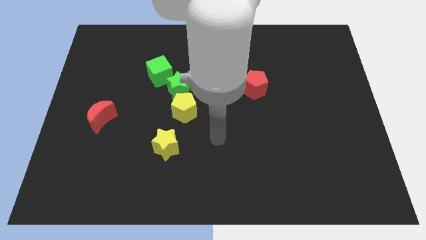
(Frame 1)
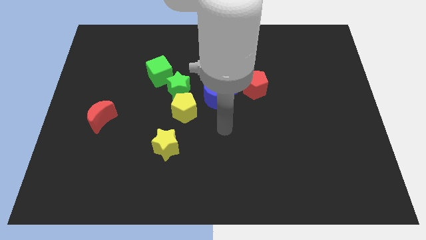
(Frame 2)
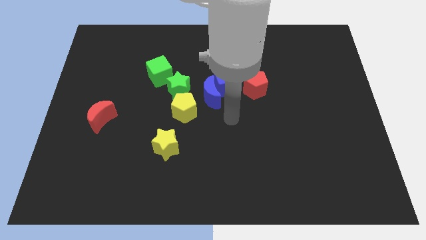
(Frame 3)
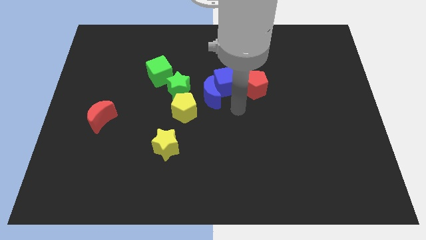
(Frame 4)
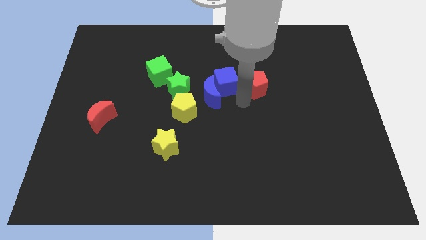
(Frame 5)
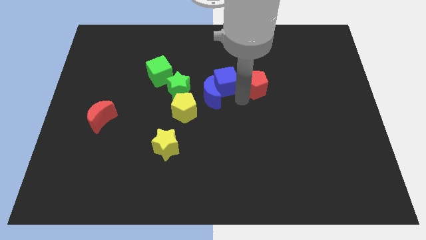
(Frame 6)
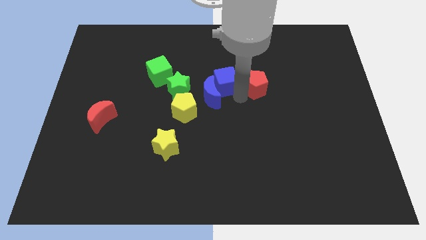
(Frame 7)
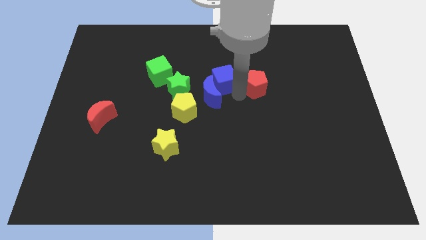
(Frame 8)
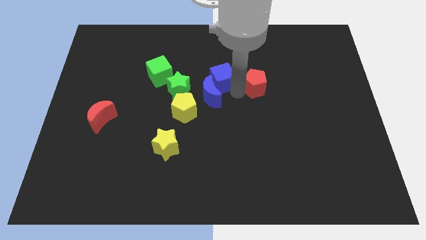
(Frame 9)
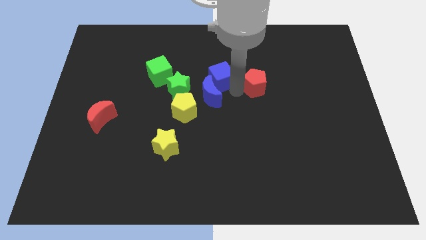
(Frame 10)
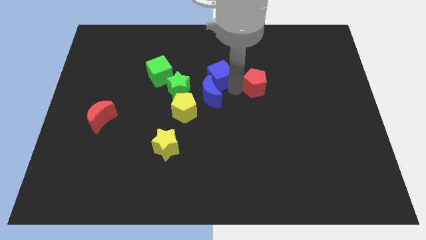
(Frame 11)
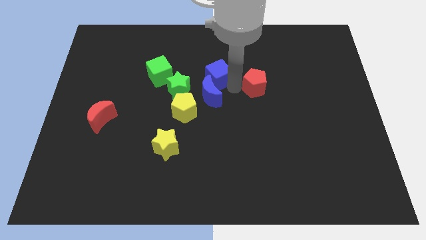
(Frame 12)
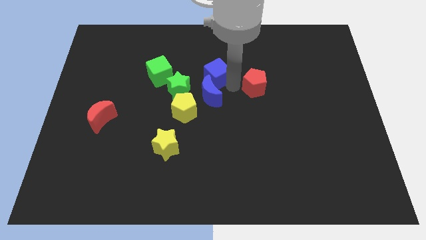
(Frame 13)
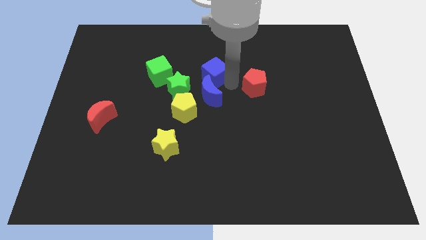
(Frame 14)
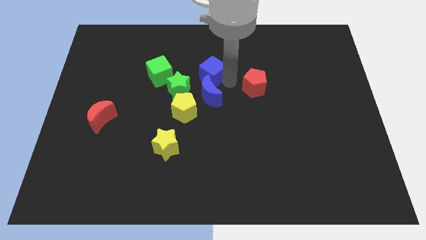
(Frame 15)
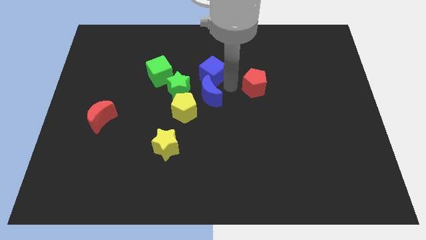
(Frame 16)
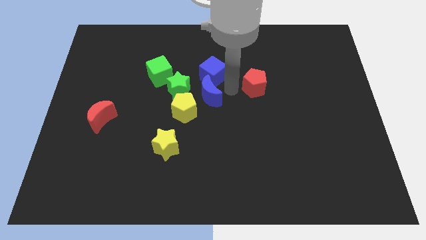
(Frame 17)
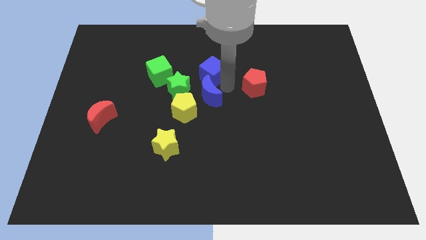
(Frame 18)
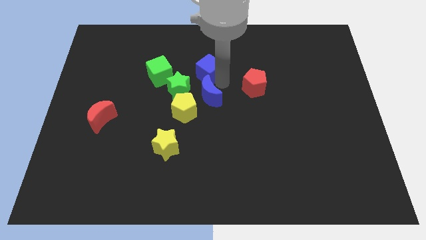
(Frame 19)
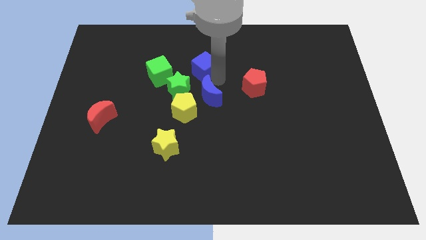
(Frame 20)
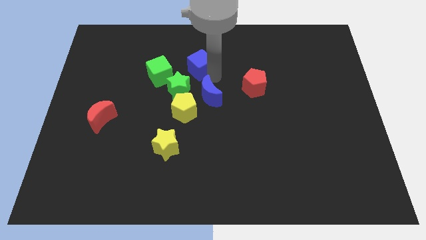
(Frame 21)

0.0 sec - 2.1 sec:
pull the blue cube apart from the blue moon and red pentagon

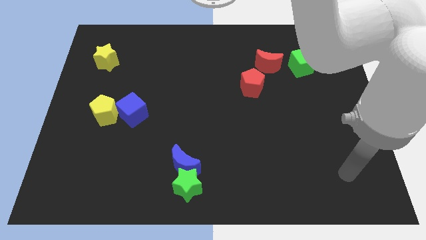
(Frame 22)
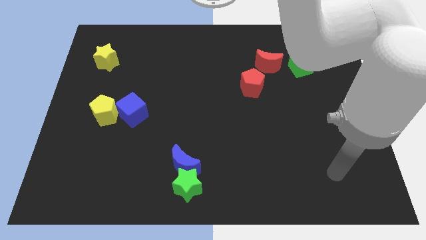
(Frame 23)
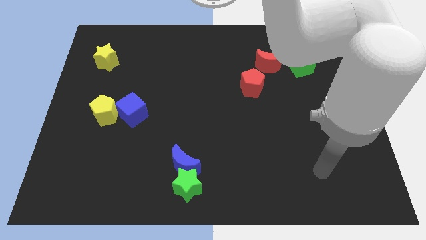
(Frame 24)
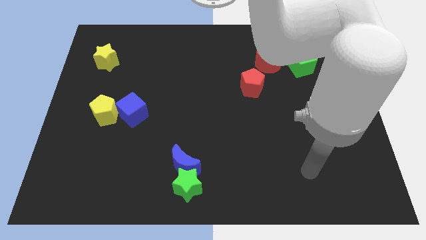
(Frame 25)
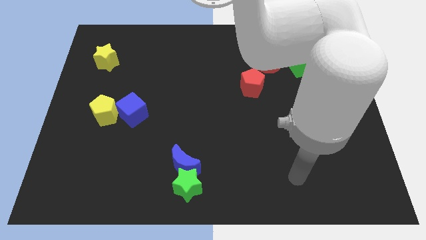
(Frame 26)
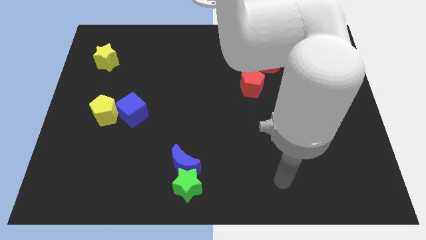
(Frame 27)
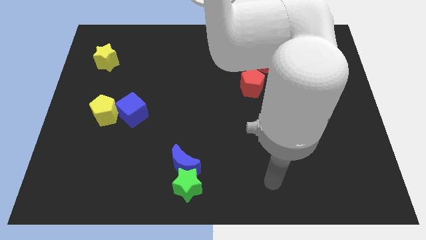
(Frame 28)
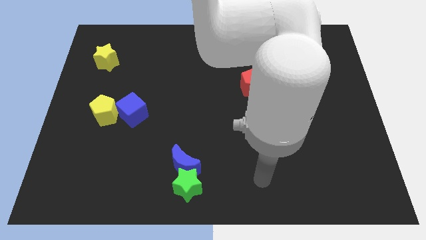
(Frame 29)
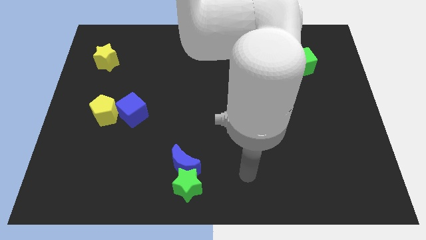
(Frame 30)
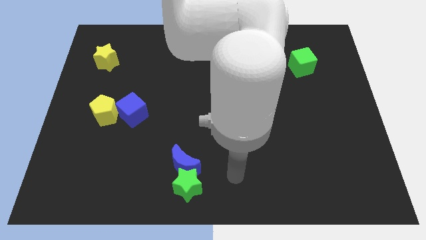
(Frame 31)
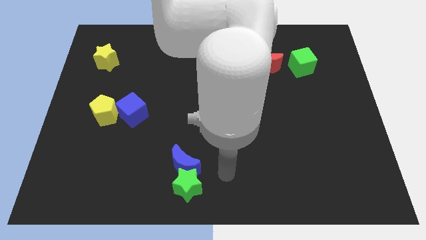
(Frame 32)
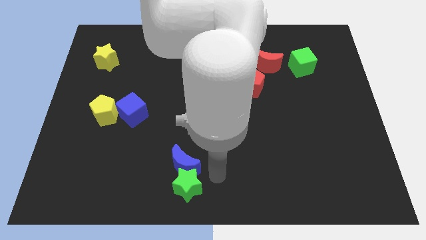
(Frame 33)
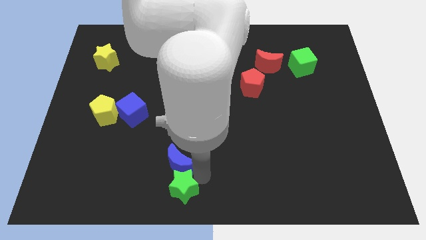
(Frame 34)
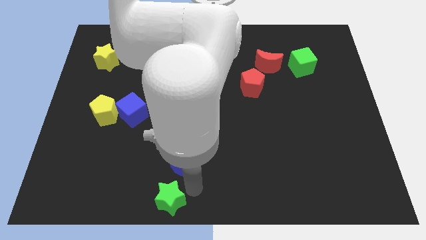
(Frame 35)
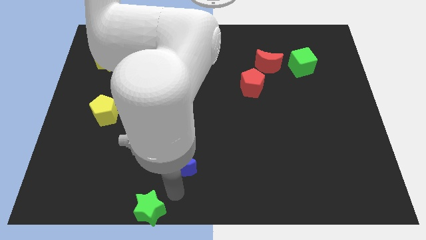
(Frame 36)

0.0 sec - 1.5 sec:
pull the blue moon apart from the green star

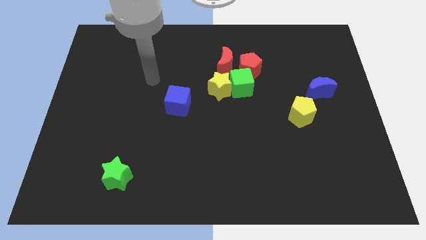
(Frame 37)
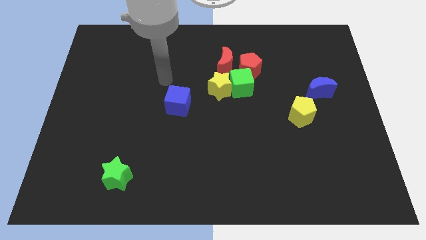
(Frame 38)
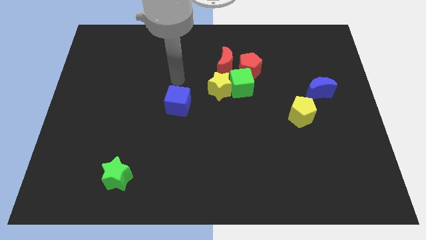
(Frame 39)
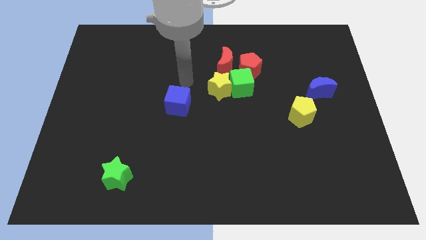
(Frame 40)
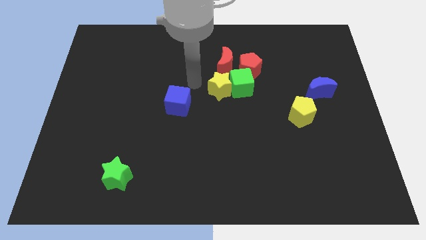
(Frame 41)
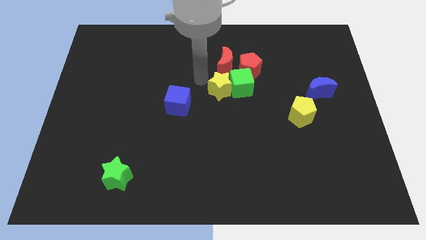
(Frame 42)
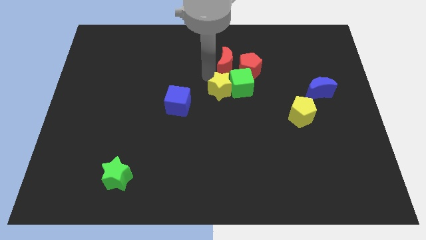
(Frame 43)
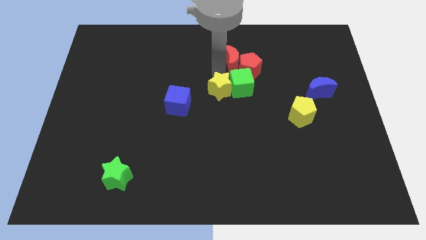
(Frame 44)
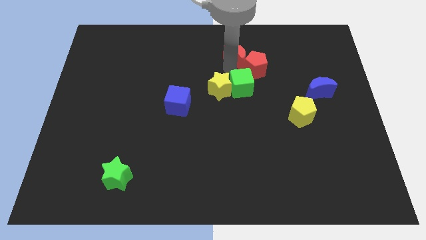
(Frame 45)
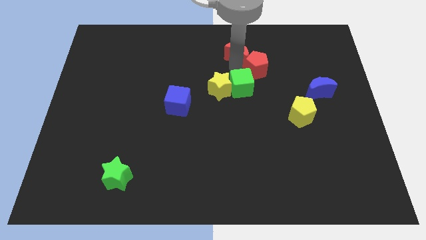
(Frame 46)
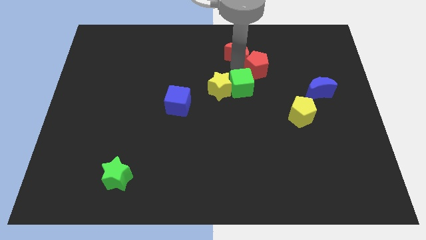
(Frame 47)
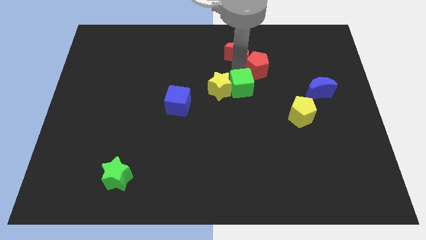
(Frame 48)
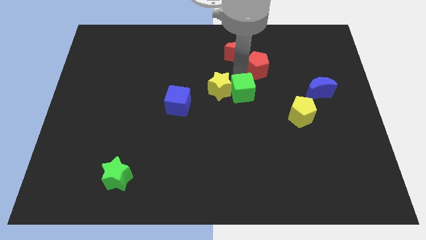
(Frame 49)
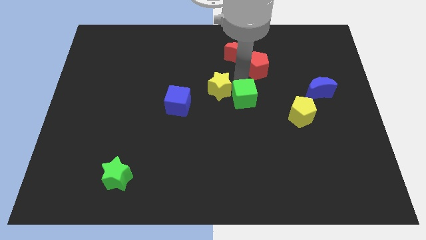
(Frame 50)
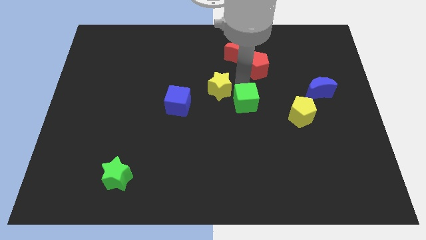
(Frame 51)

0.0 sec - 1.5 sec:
pull the green cube apart from the yellow star, red pentagon, and red moon

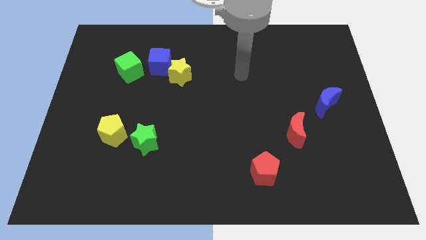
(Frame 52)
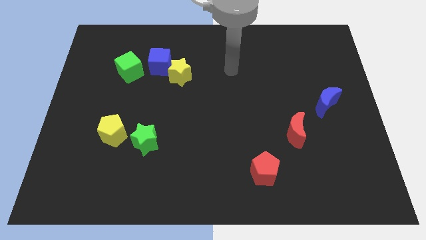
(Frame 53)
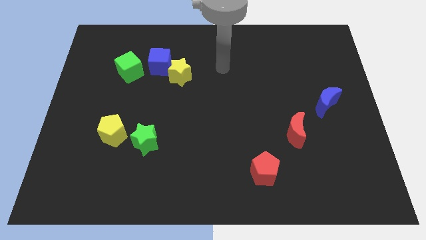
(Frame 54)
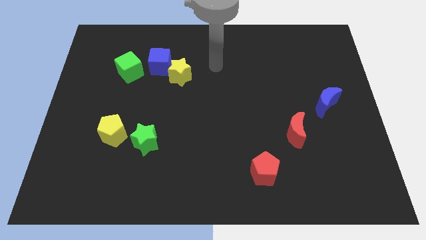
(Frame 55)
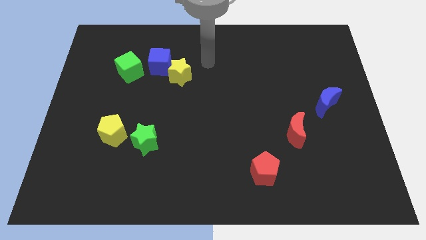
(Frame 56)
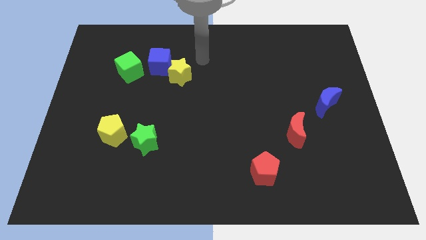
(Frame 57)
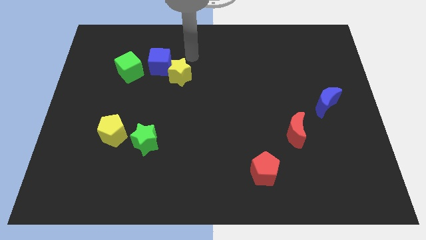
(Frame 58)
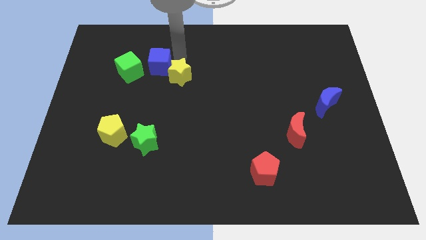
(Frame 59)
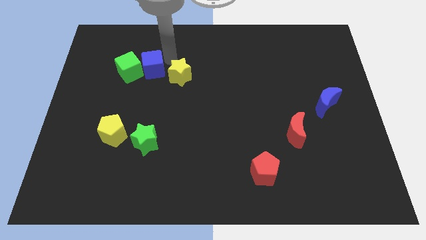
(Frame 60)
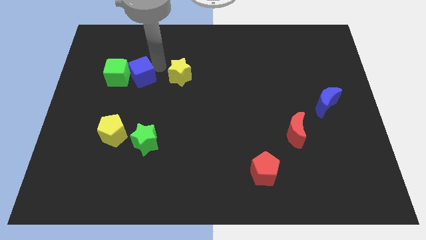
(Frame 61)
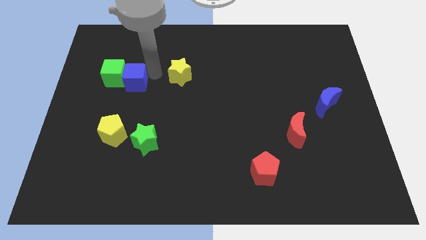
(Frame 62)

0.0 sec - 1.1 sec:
pull the yellow star apart from the blue cube

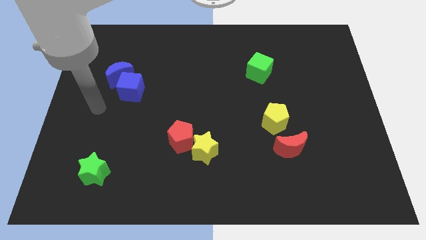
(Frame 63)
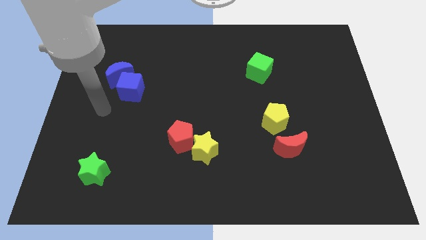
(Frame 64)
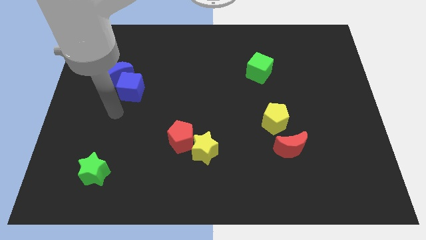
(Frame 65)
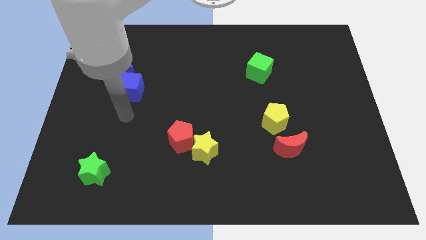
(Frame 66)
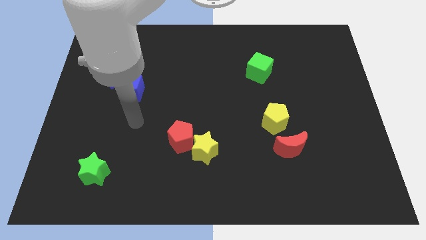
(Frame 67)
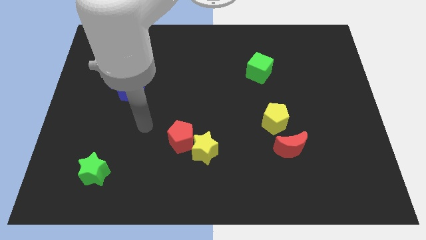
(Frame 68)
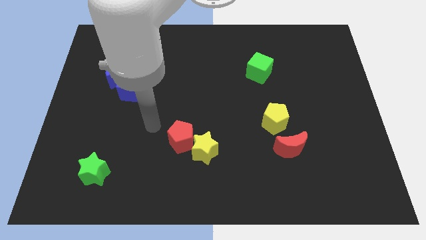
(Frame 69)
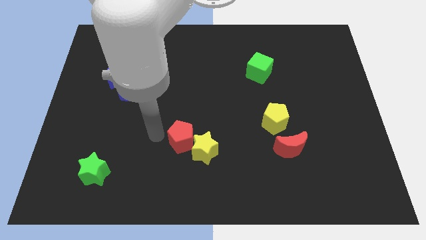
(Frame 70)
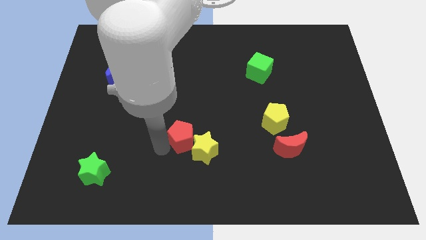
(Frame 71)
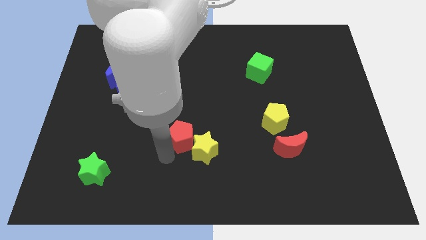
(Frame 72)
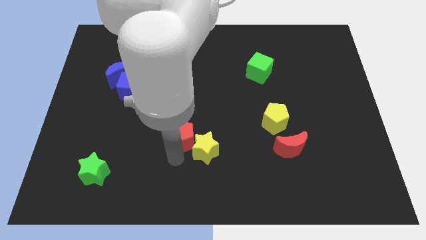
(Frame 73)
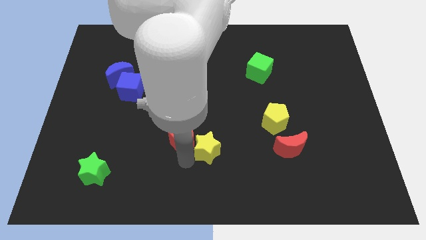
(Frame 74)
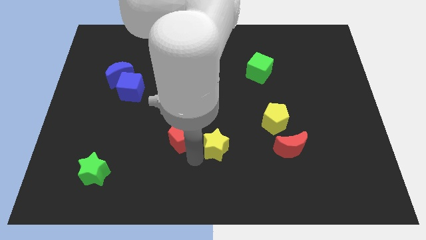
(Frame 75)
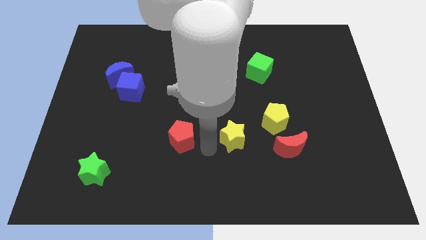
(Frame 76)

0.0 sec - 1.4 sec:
pull the red pentagon apart from the yellow star

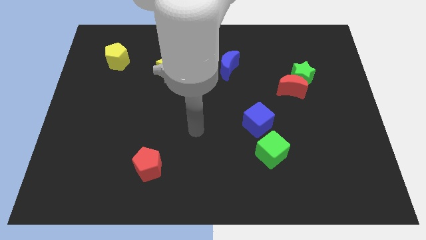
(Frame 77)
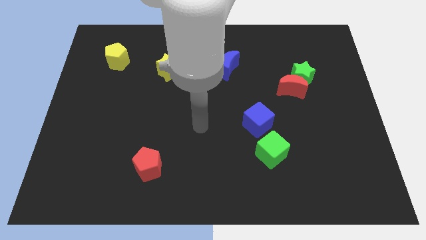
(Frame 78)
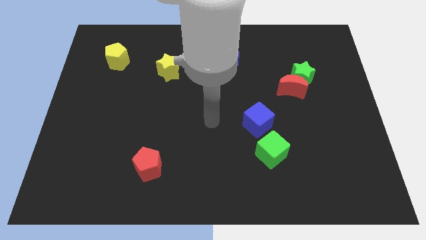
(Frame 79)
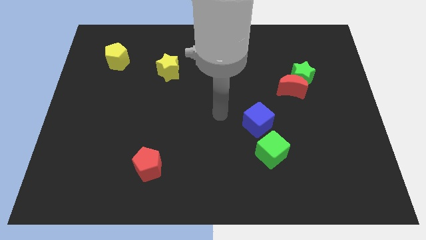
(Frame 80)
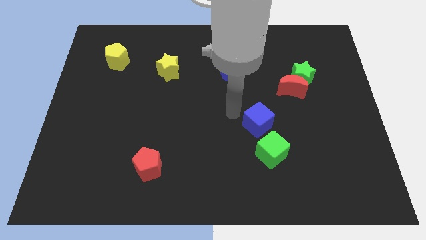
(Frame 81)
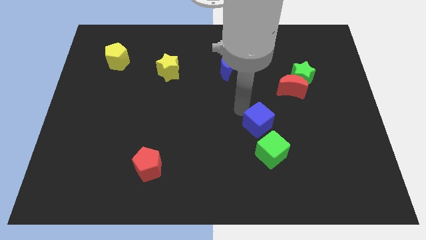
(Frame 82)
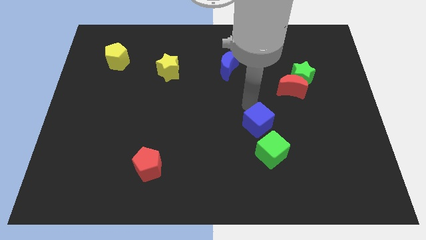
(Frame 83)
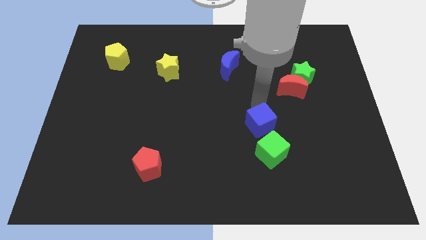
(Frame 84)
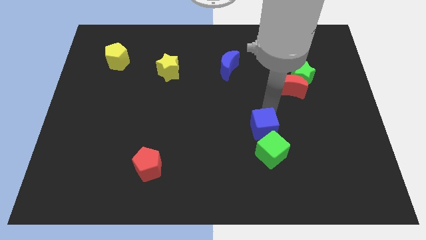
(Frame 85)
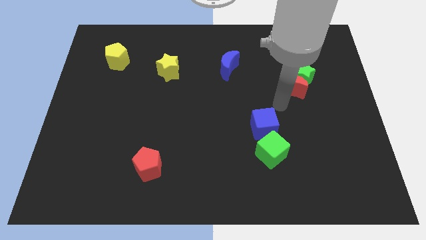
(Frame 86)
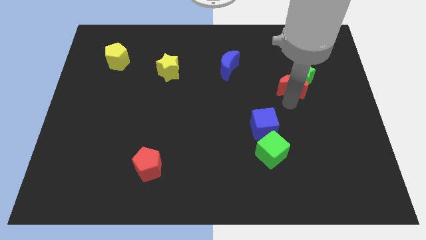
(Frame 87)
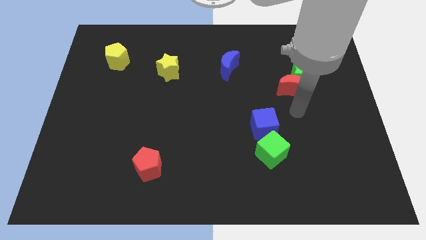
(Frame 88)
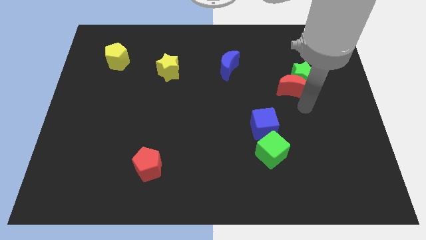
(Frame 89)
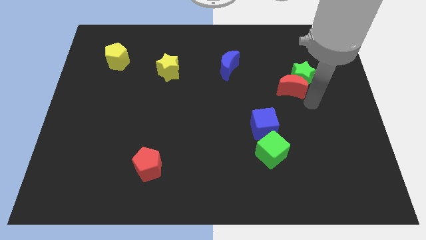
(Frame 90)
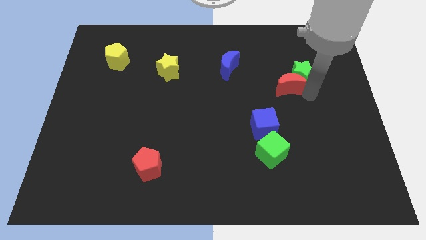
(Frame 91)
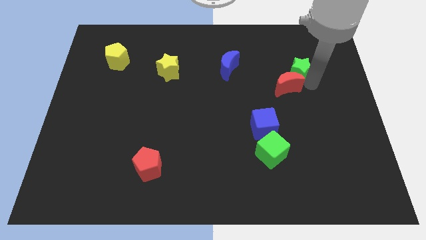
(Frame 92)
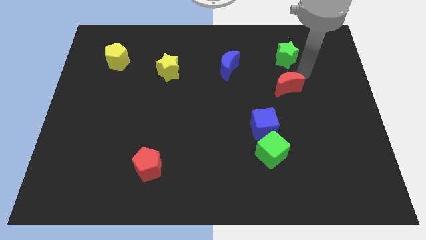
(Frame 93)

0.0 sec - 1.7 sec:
separate the red moon from the green star
